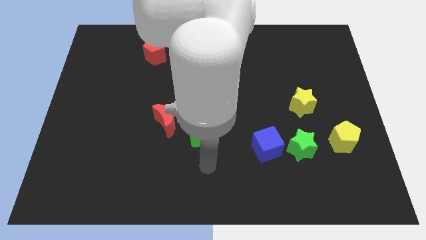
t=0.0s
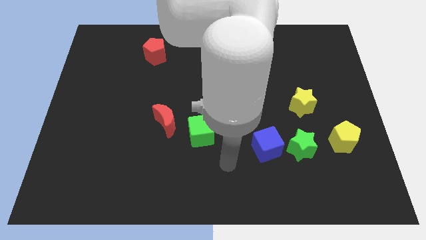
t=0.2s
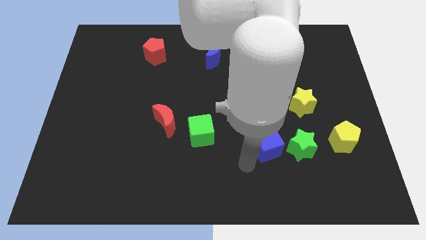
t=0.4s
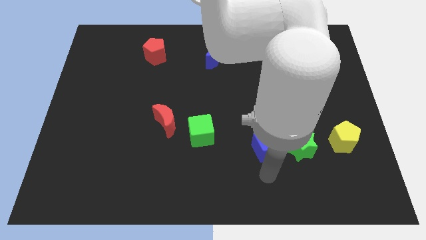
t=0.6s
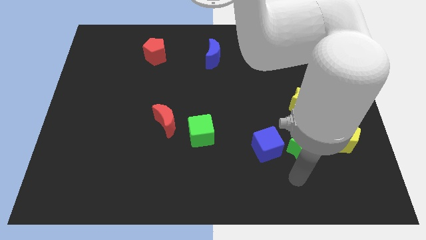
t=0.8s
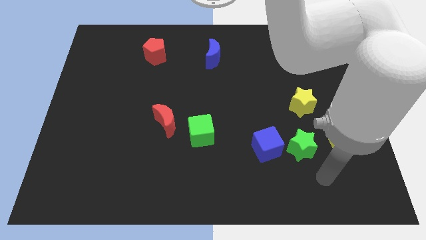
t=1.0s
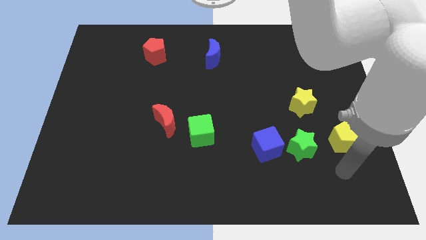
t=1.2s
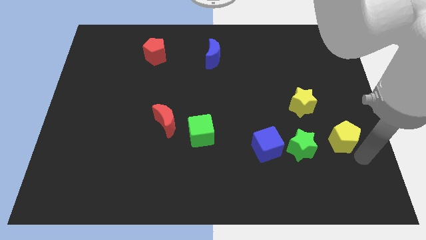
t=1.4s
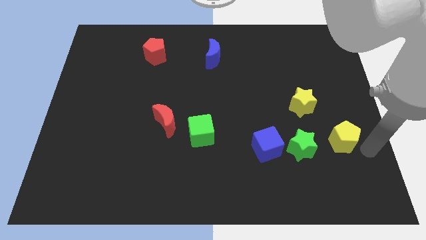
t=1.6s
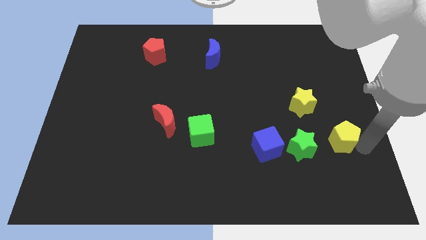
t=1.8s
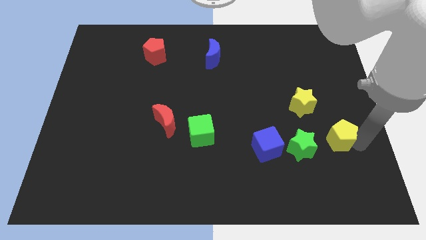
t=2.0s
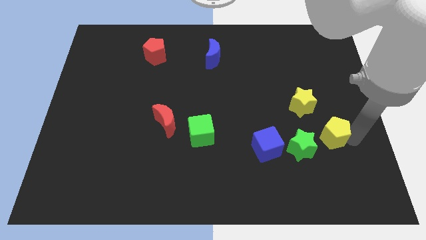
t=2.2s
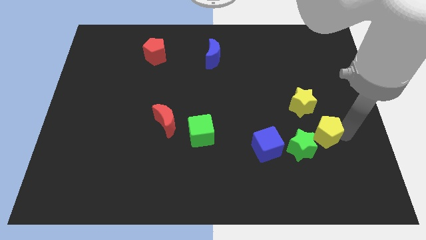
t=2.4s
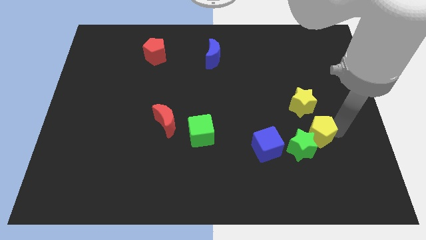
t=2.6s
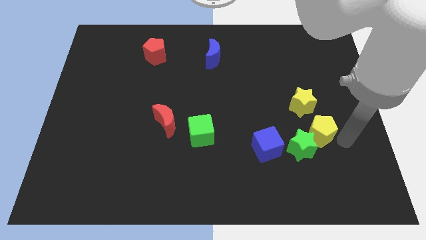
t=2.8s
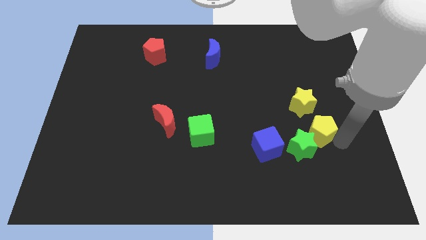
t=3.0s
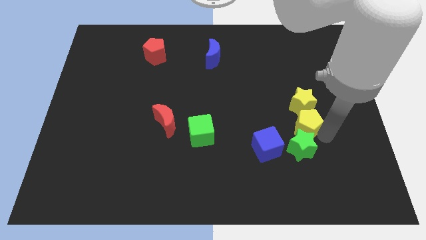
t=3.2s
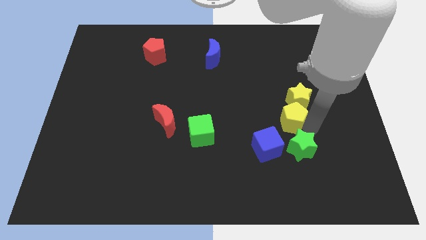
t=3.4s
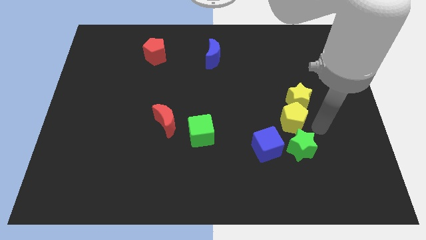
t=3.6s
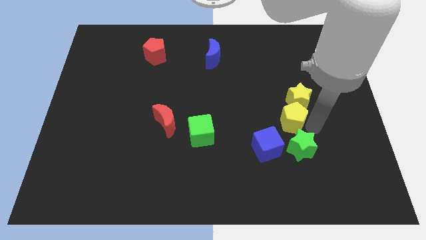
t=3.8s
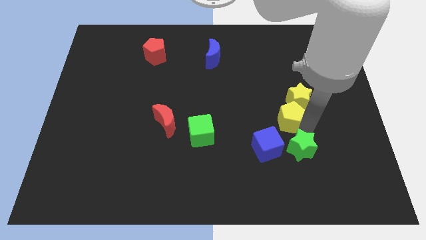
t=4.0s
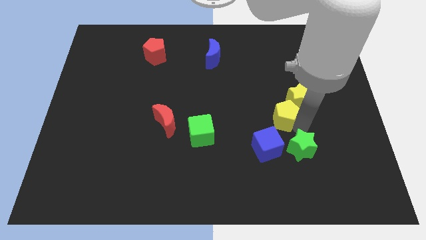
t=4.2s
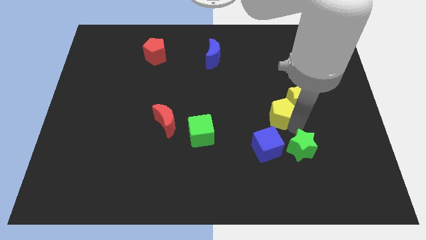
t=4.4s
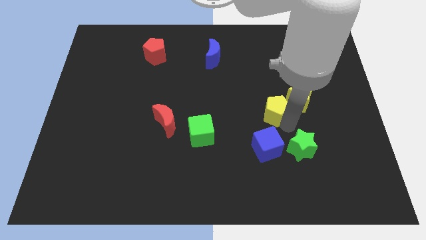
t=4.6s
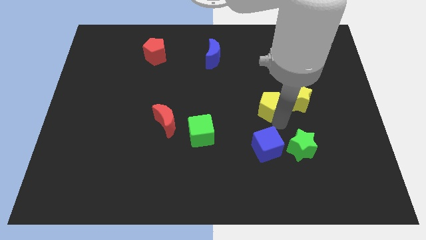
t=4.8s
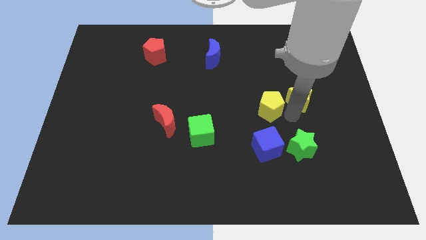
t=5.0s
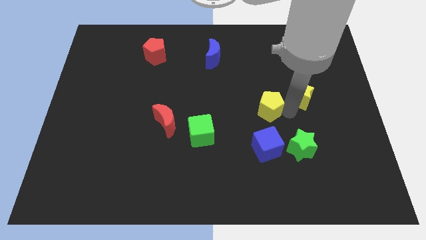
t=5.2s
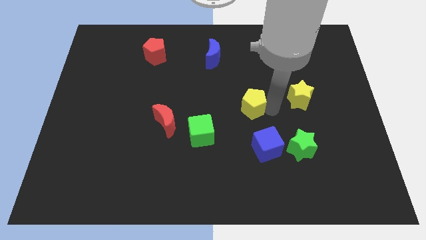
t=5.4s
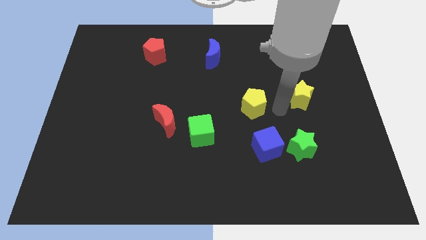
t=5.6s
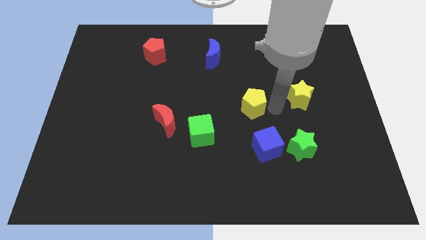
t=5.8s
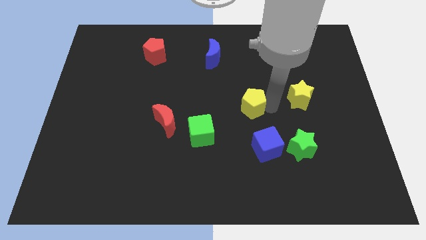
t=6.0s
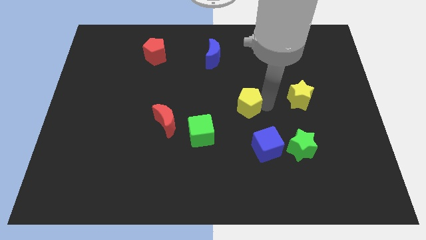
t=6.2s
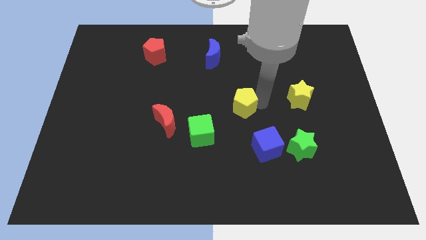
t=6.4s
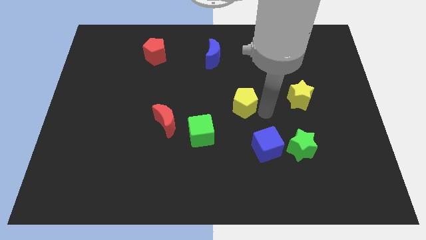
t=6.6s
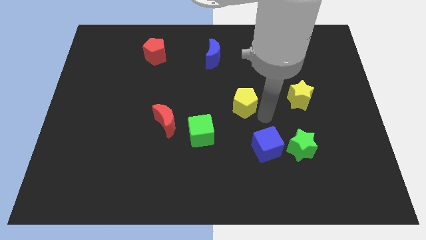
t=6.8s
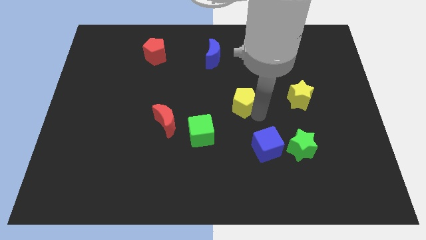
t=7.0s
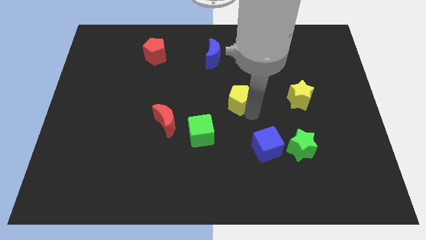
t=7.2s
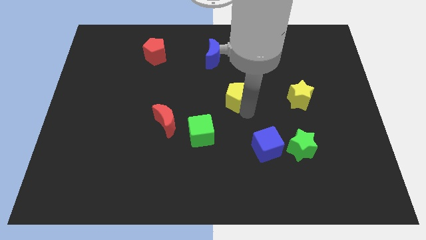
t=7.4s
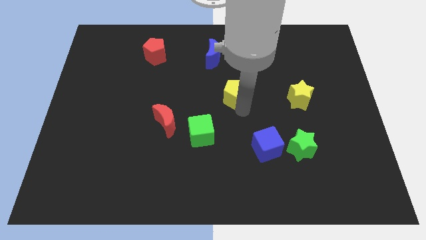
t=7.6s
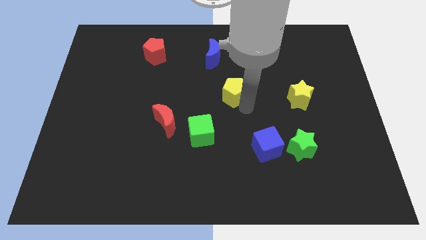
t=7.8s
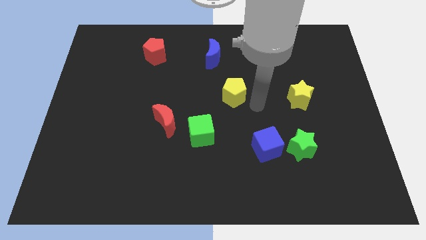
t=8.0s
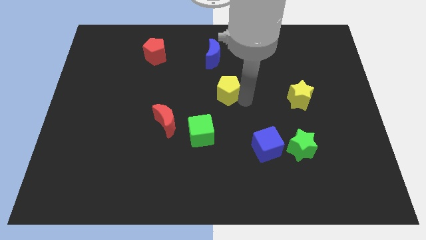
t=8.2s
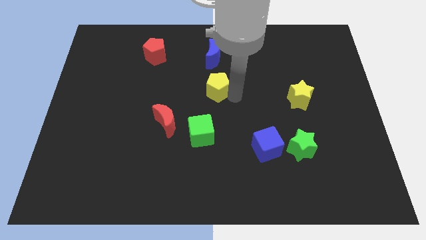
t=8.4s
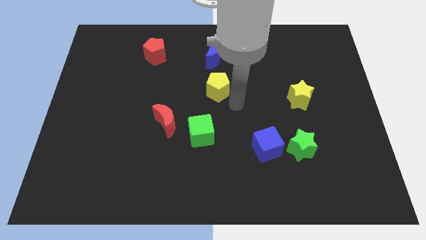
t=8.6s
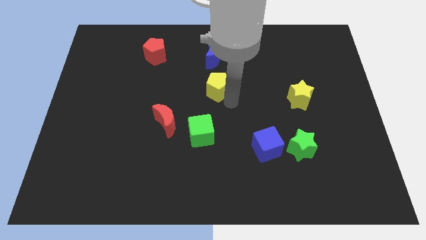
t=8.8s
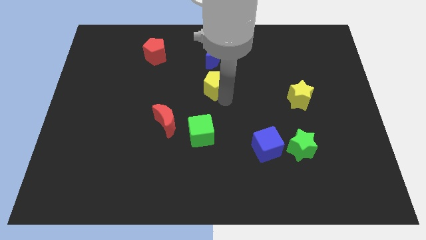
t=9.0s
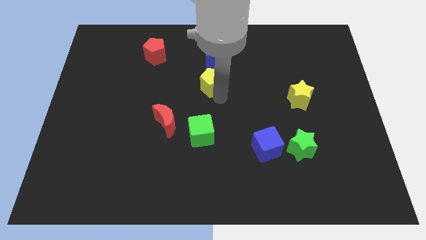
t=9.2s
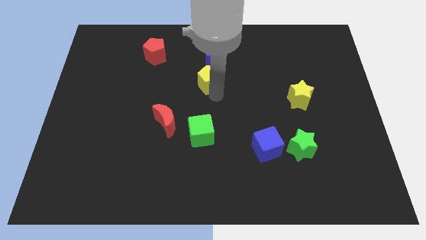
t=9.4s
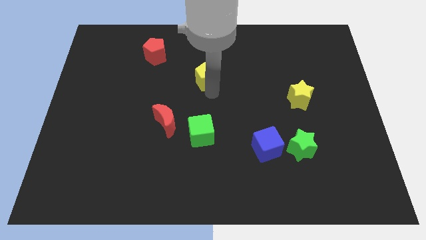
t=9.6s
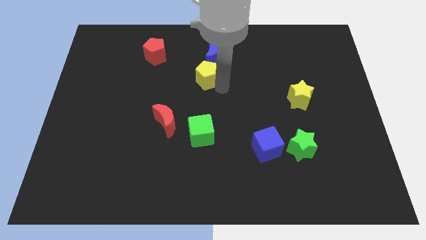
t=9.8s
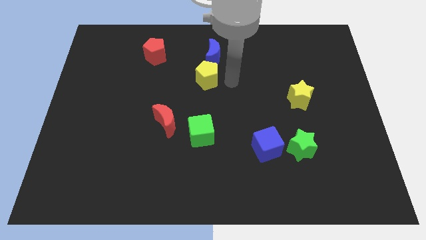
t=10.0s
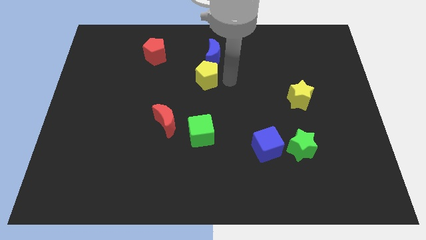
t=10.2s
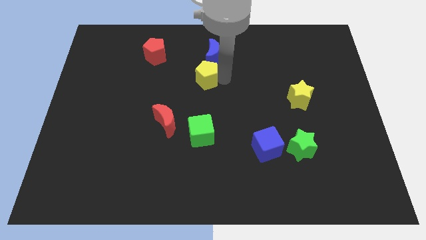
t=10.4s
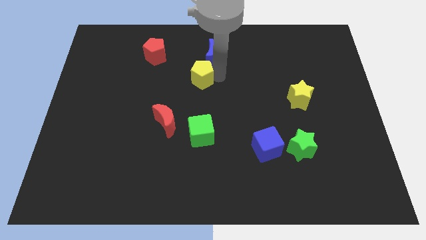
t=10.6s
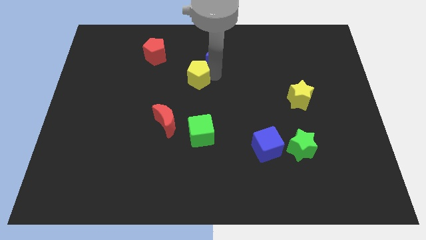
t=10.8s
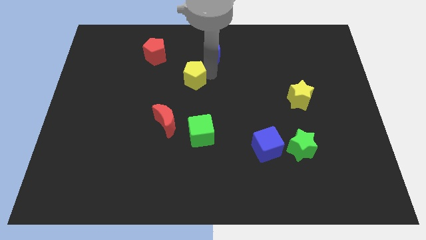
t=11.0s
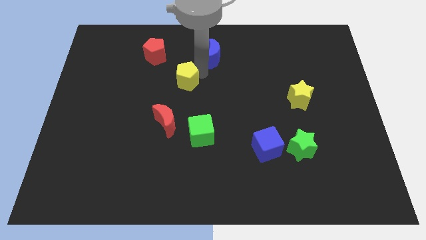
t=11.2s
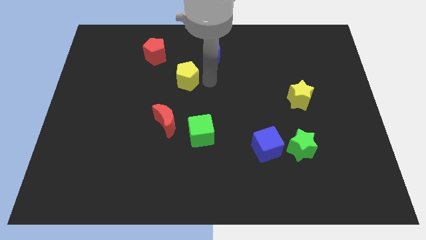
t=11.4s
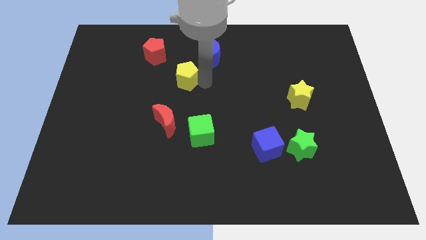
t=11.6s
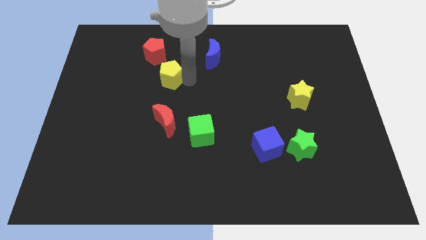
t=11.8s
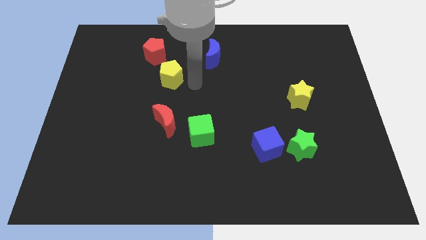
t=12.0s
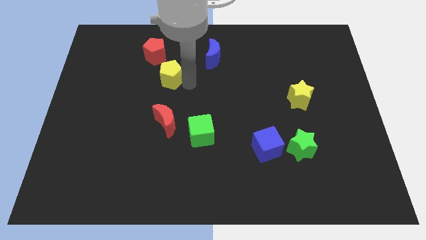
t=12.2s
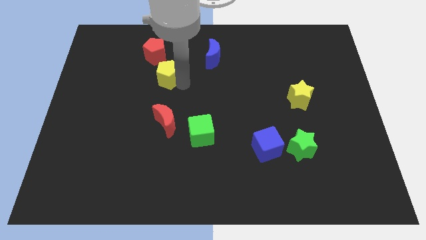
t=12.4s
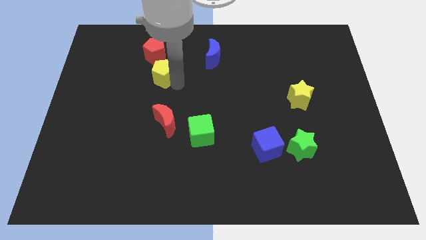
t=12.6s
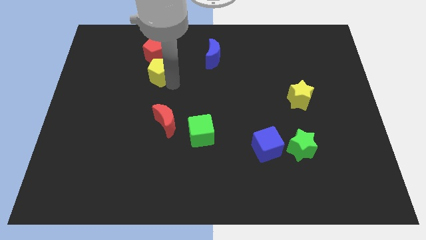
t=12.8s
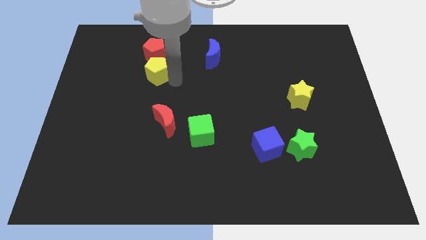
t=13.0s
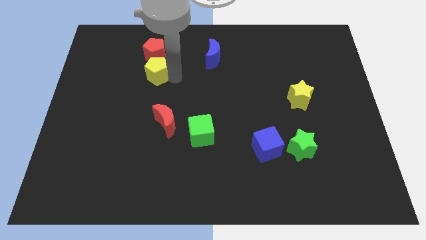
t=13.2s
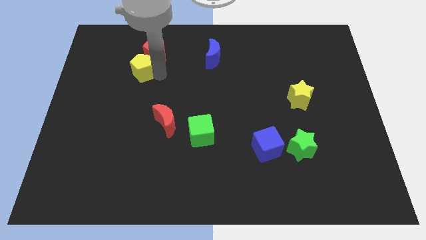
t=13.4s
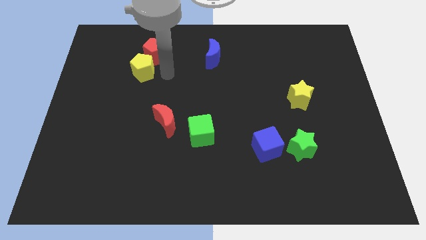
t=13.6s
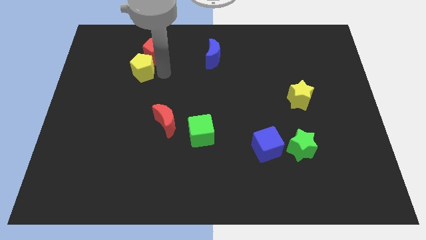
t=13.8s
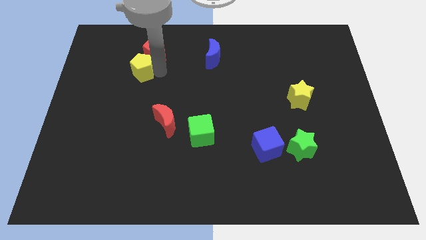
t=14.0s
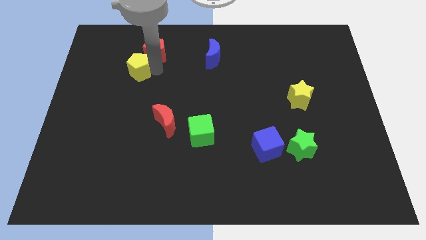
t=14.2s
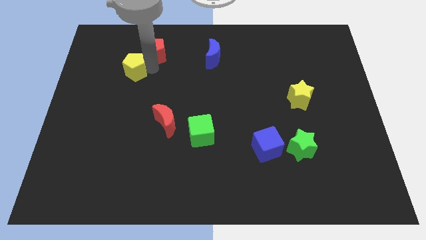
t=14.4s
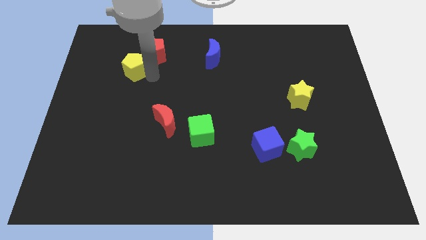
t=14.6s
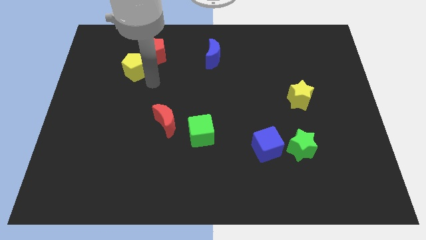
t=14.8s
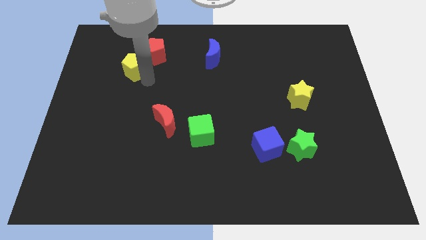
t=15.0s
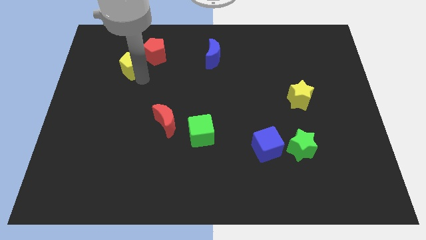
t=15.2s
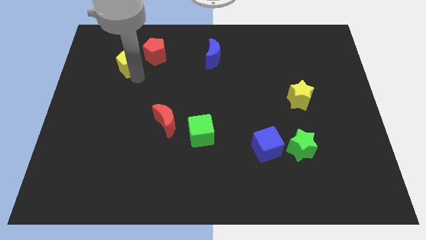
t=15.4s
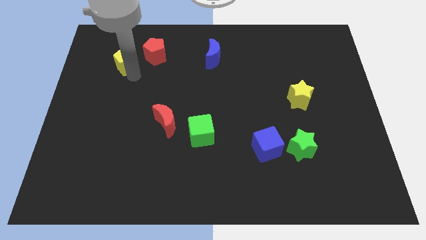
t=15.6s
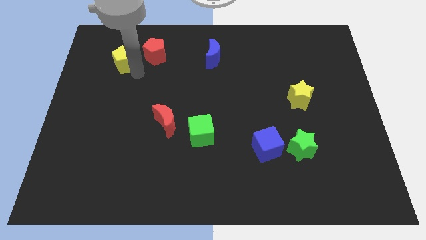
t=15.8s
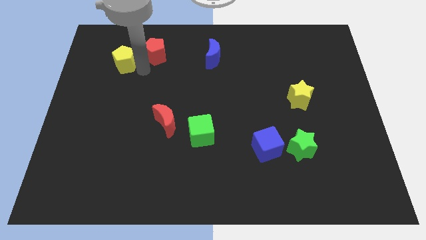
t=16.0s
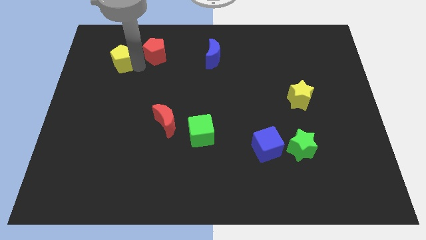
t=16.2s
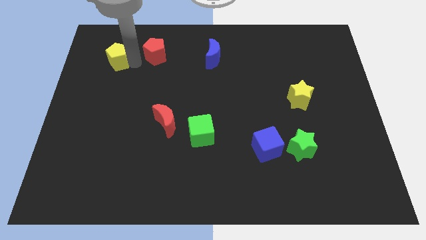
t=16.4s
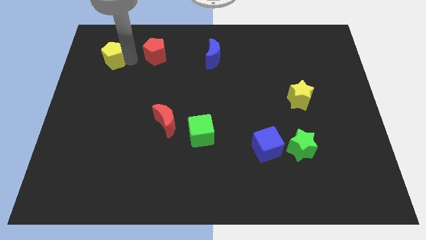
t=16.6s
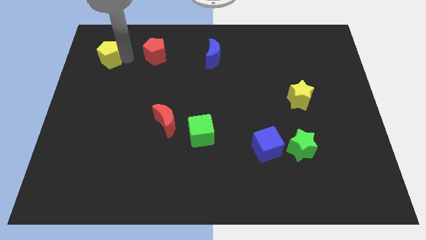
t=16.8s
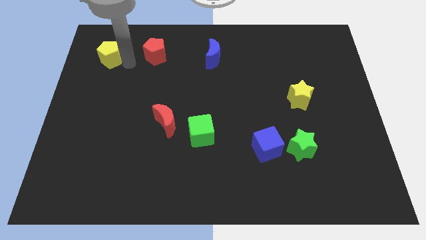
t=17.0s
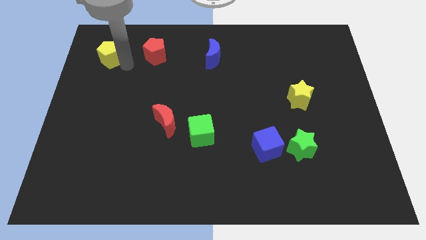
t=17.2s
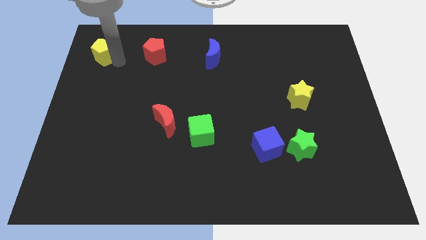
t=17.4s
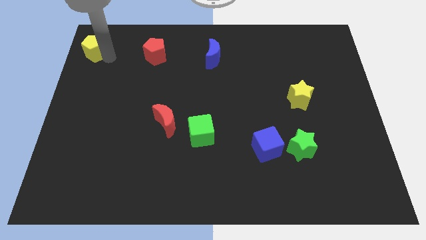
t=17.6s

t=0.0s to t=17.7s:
move the yellow pentagon to the top left
